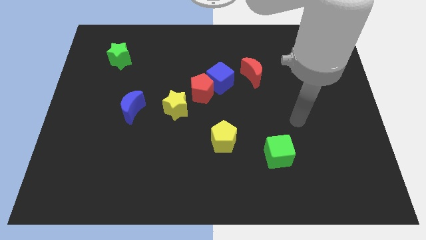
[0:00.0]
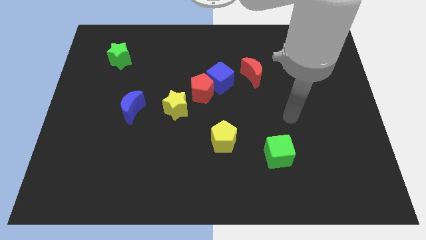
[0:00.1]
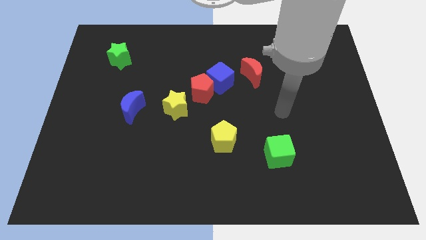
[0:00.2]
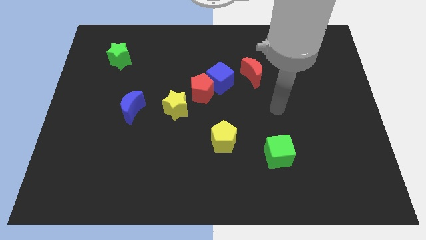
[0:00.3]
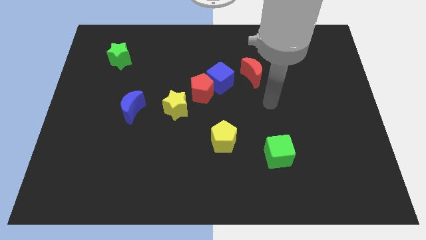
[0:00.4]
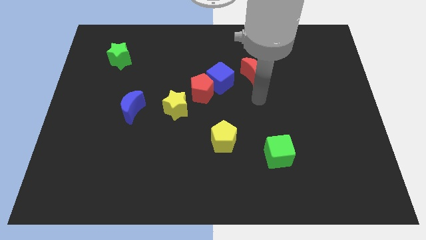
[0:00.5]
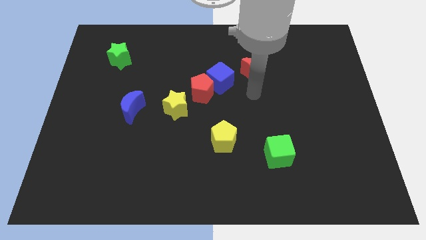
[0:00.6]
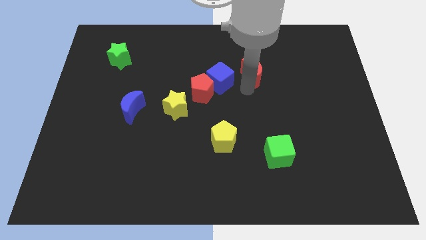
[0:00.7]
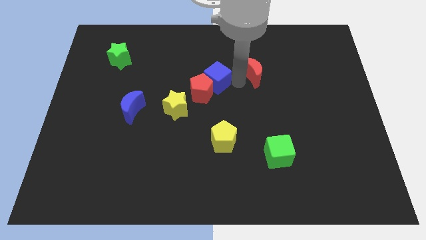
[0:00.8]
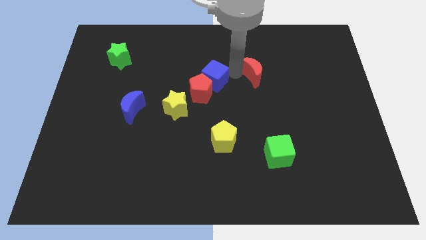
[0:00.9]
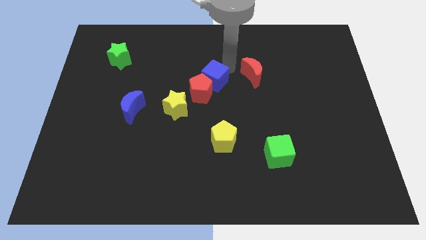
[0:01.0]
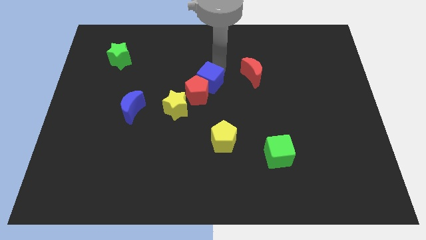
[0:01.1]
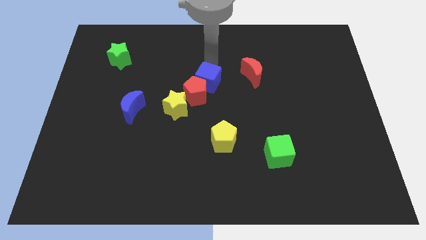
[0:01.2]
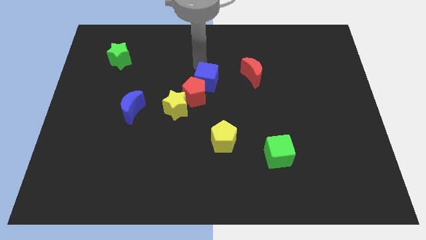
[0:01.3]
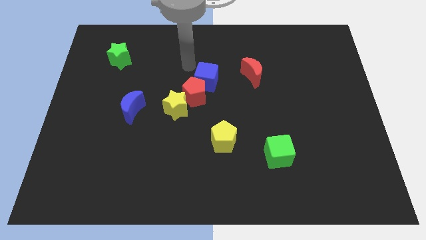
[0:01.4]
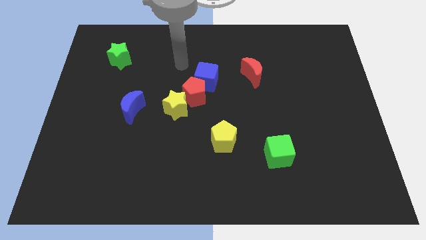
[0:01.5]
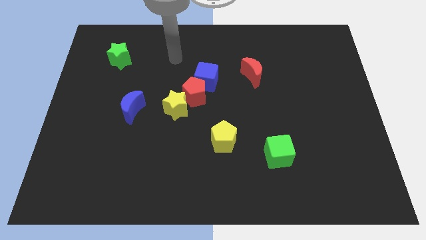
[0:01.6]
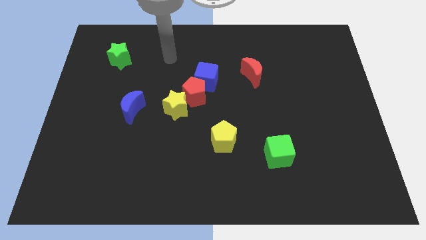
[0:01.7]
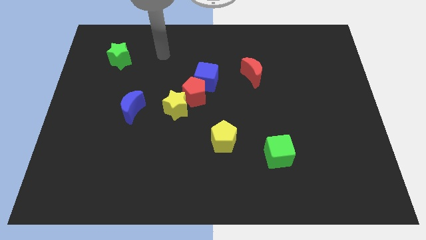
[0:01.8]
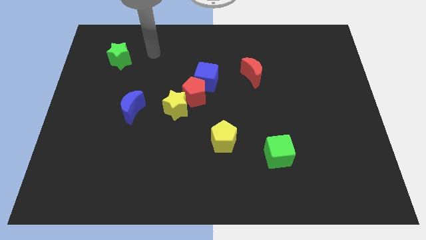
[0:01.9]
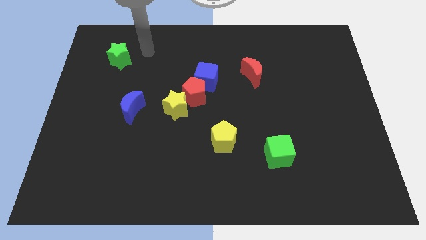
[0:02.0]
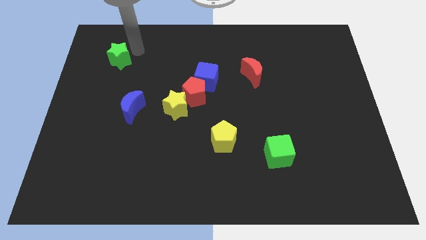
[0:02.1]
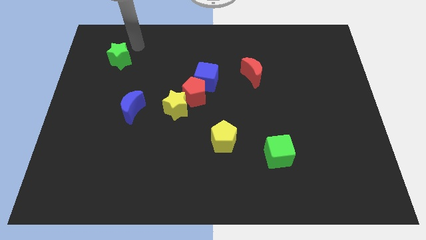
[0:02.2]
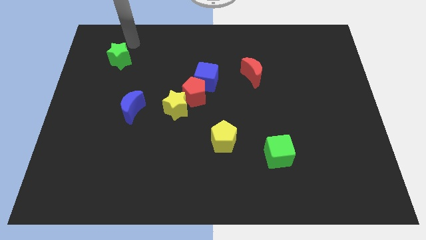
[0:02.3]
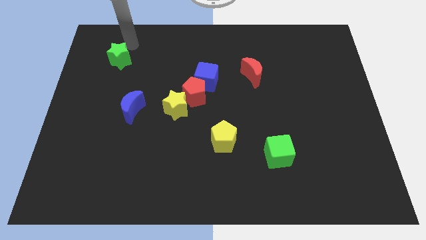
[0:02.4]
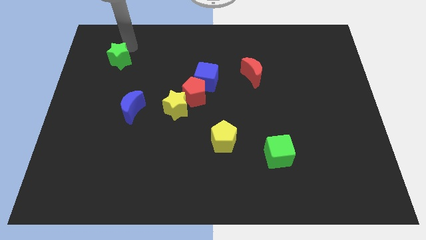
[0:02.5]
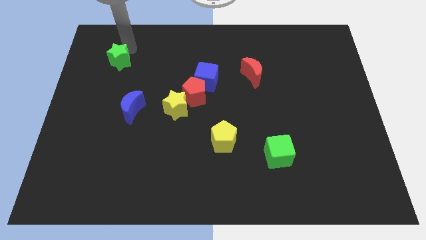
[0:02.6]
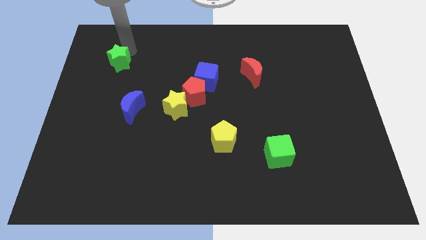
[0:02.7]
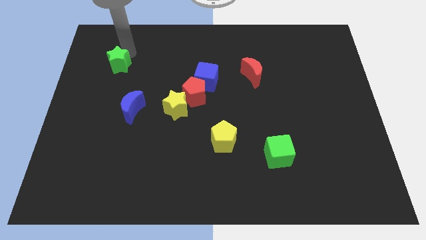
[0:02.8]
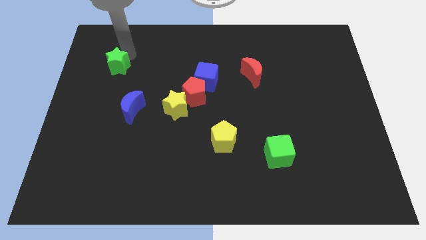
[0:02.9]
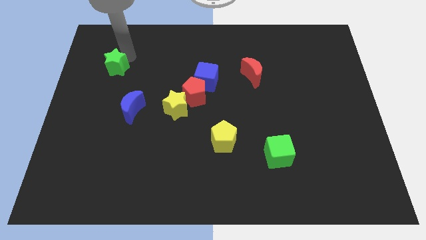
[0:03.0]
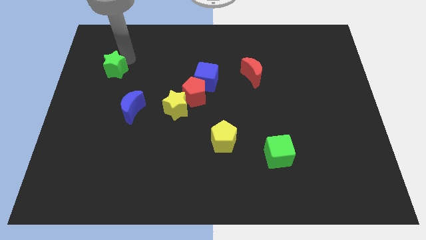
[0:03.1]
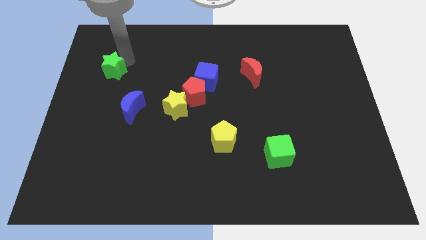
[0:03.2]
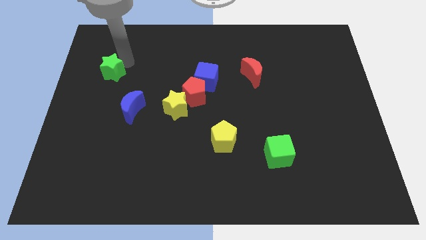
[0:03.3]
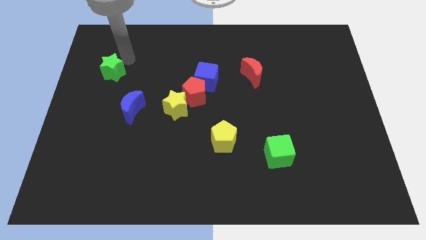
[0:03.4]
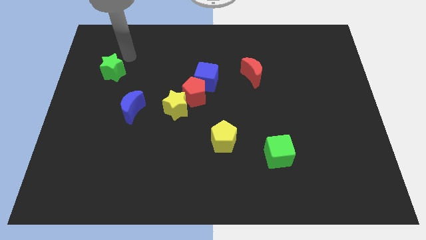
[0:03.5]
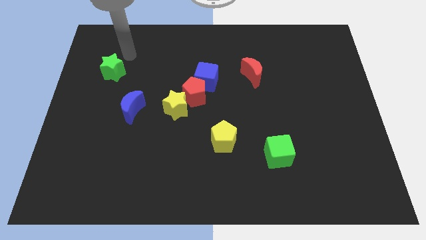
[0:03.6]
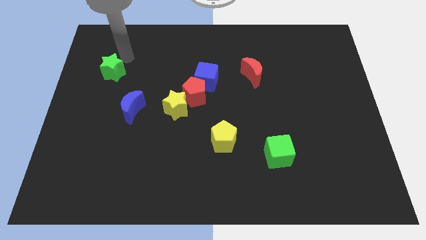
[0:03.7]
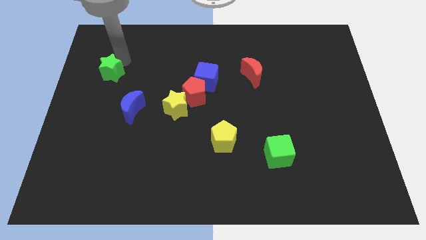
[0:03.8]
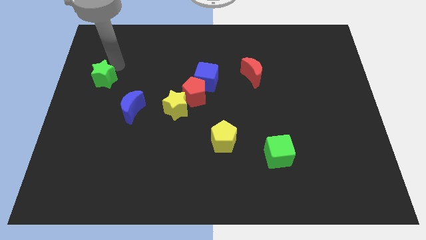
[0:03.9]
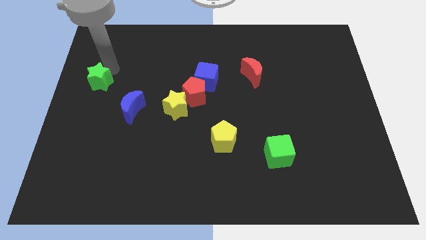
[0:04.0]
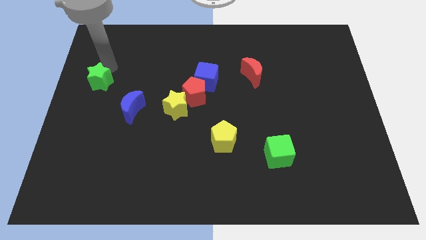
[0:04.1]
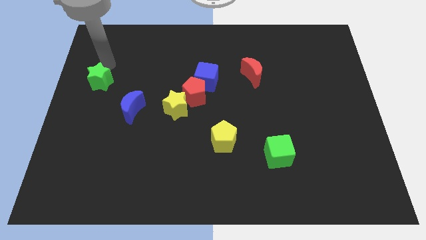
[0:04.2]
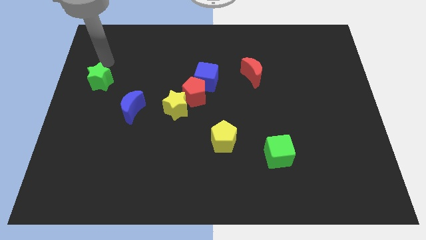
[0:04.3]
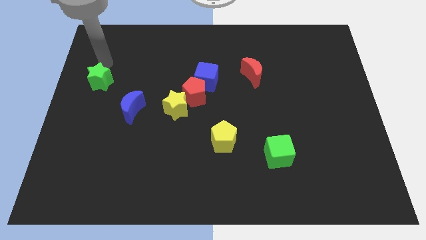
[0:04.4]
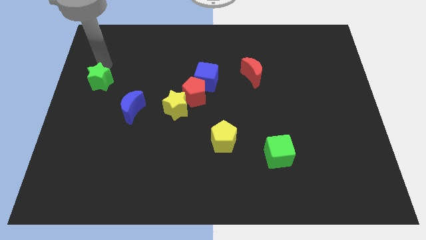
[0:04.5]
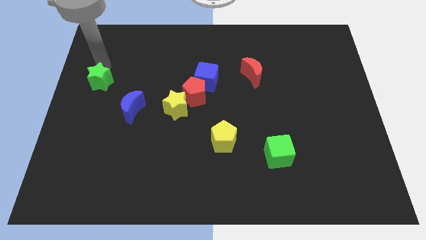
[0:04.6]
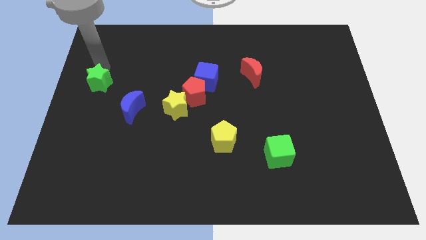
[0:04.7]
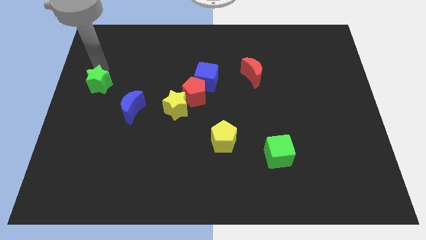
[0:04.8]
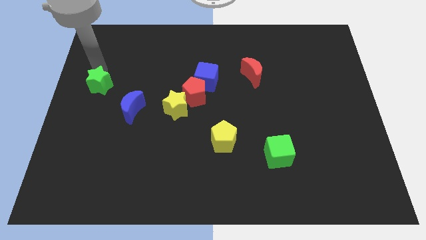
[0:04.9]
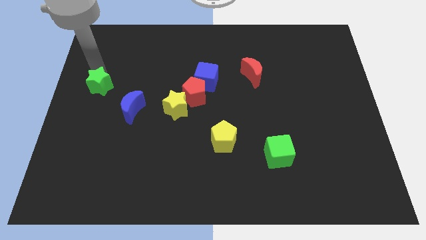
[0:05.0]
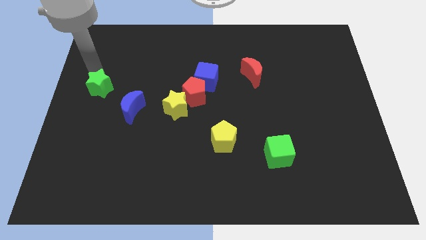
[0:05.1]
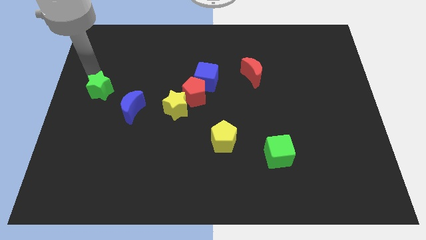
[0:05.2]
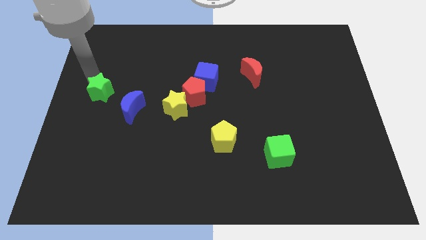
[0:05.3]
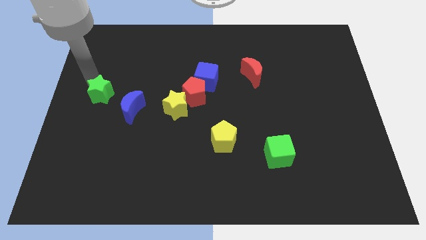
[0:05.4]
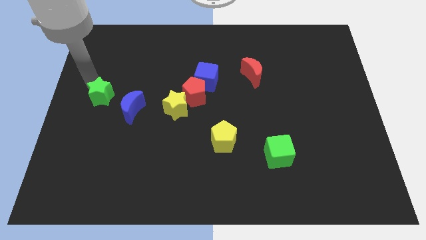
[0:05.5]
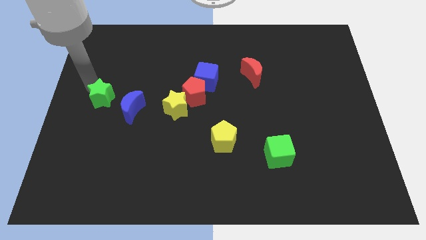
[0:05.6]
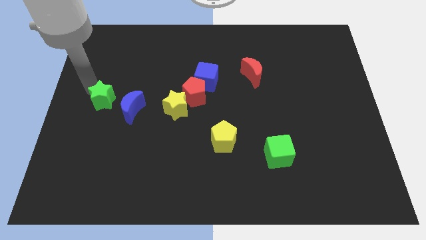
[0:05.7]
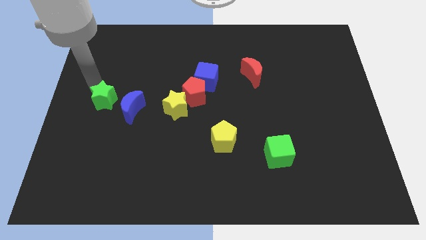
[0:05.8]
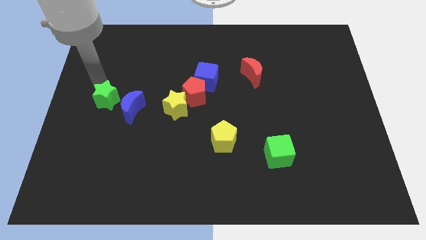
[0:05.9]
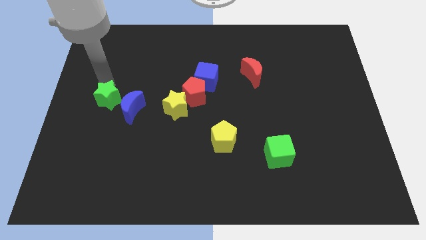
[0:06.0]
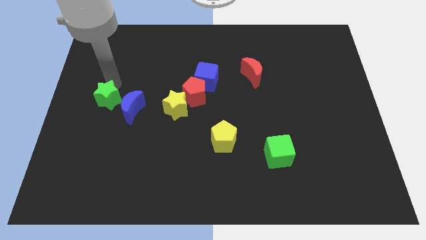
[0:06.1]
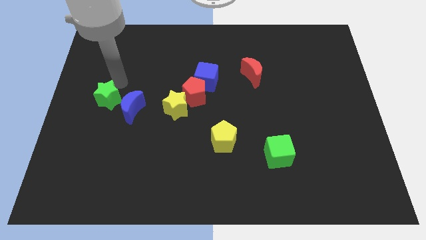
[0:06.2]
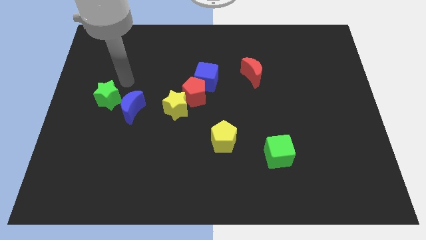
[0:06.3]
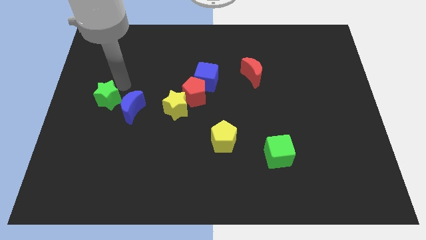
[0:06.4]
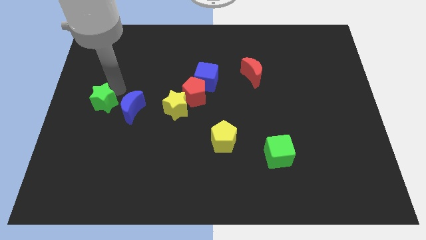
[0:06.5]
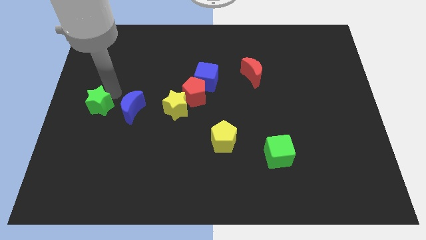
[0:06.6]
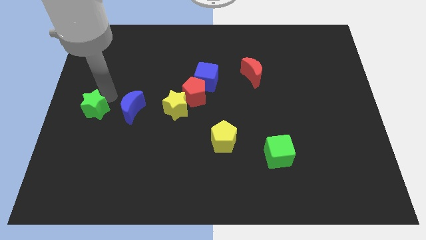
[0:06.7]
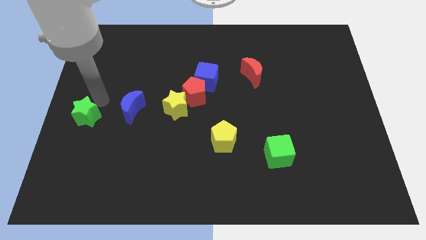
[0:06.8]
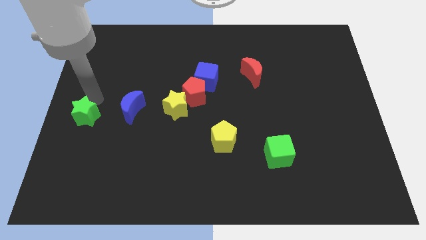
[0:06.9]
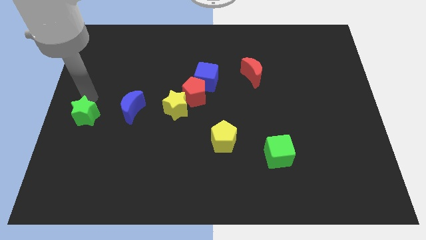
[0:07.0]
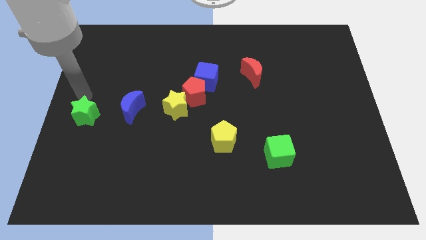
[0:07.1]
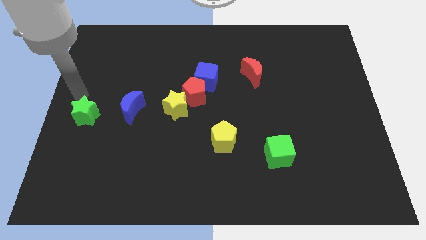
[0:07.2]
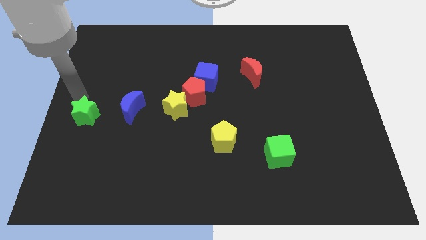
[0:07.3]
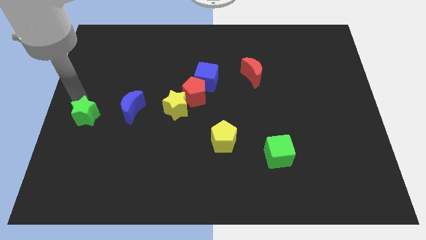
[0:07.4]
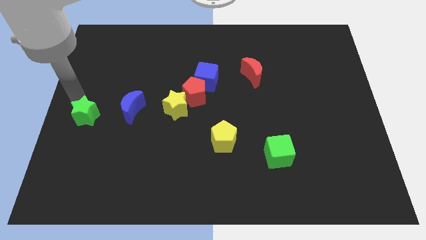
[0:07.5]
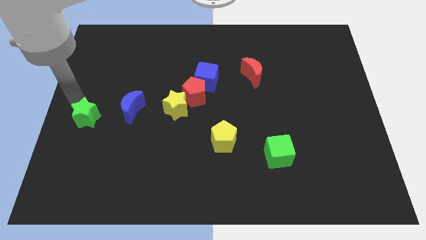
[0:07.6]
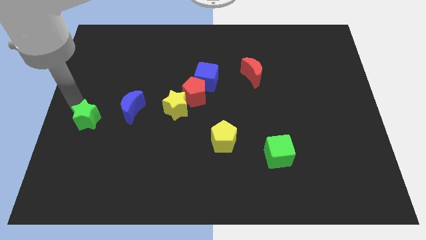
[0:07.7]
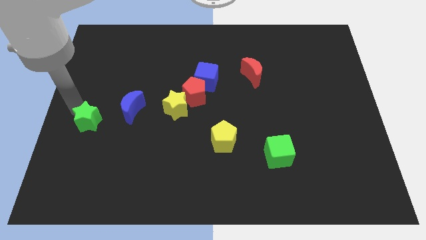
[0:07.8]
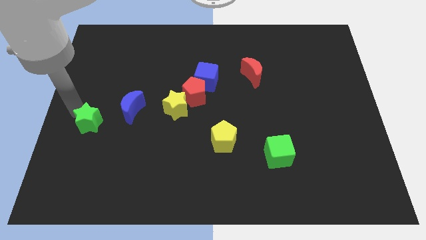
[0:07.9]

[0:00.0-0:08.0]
move the green star downwards

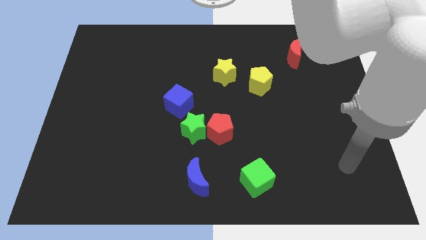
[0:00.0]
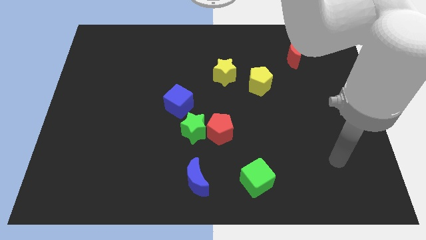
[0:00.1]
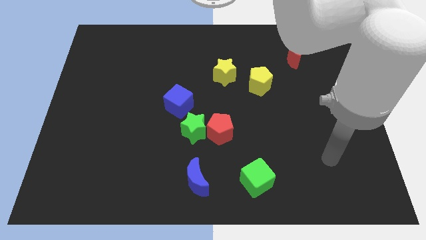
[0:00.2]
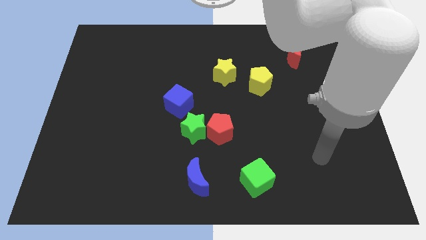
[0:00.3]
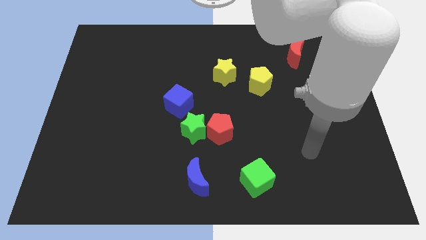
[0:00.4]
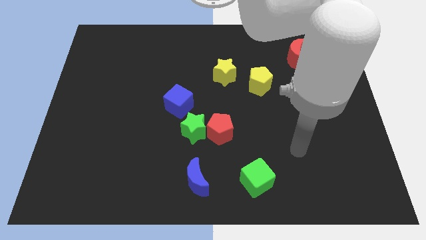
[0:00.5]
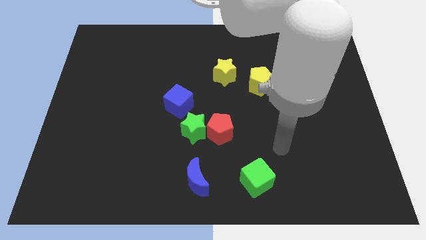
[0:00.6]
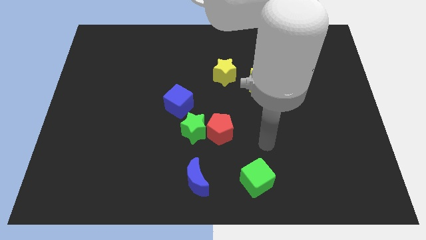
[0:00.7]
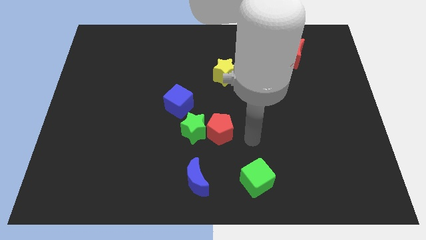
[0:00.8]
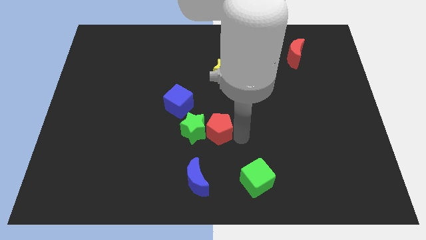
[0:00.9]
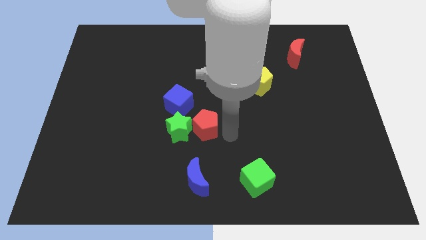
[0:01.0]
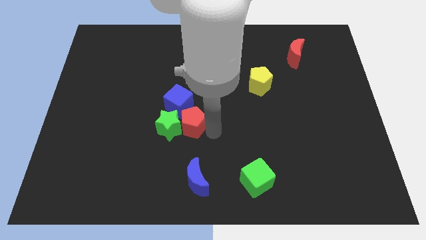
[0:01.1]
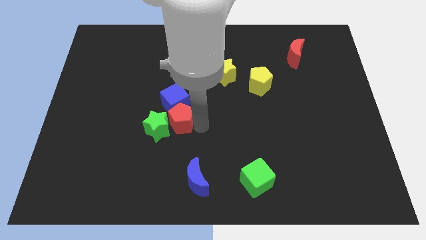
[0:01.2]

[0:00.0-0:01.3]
push the green star left a little bit
